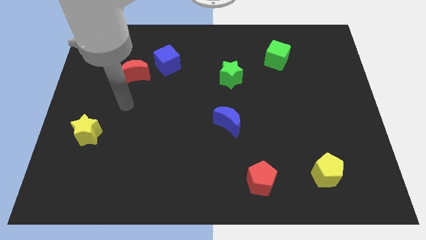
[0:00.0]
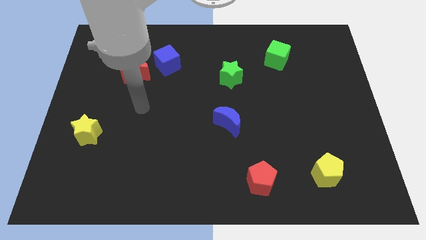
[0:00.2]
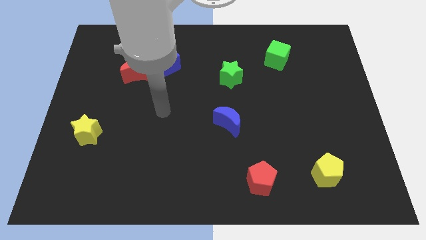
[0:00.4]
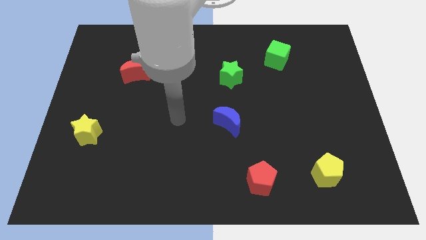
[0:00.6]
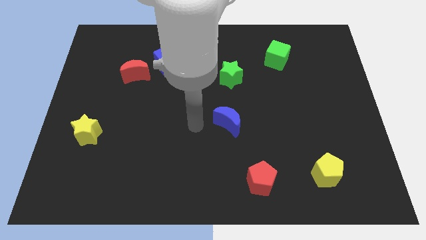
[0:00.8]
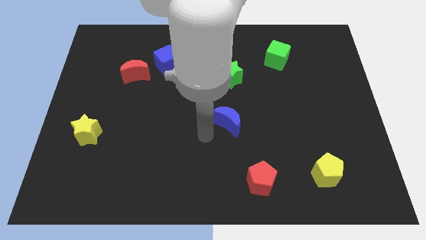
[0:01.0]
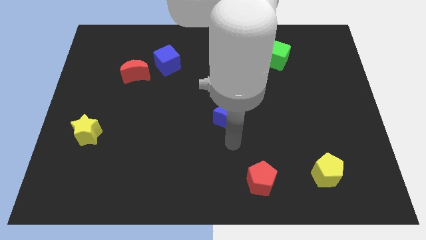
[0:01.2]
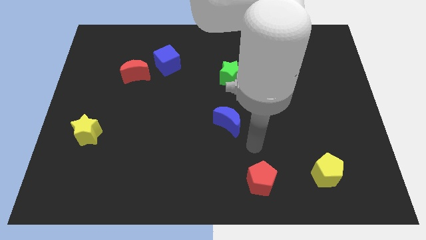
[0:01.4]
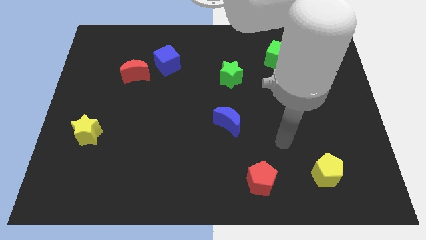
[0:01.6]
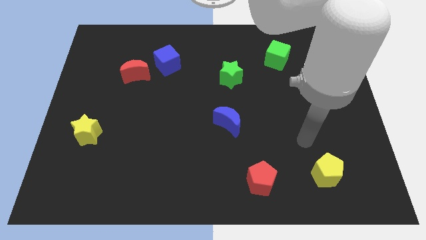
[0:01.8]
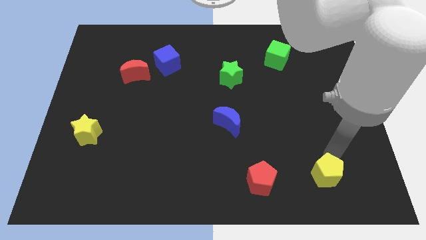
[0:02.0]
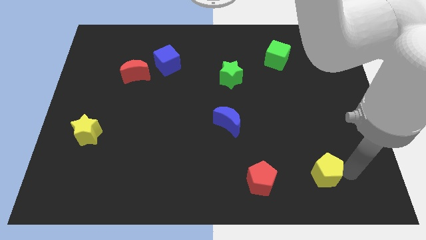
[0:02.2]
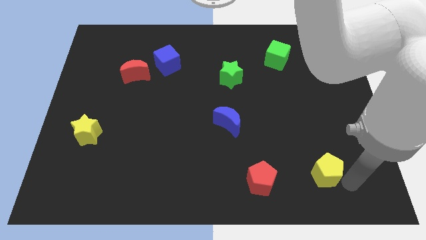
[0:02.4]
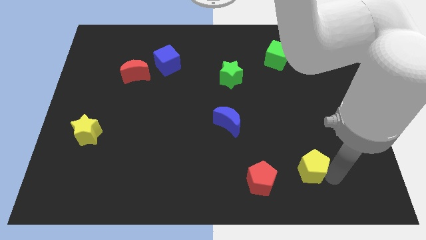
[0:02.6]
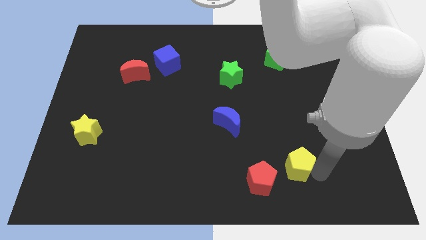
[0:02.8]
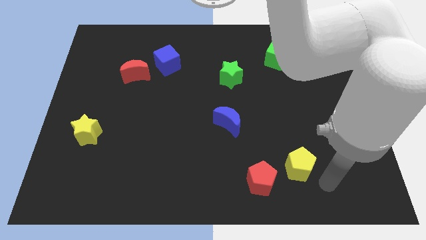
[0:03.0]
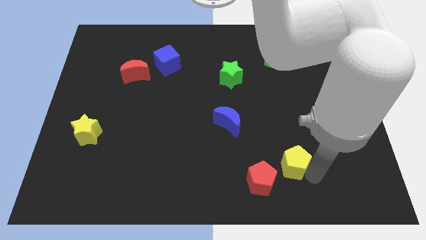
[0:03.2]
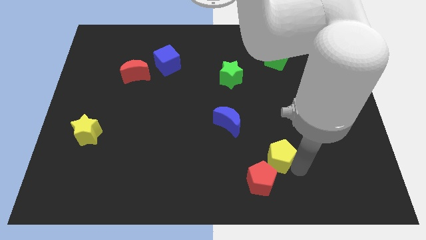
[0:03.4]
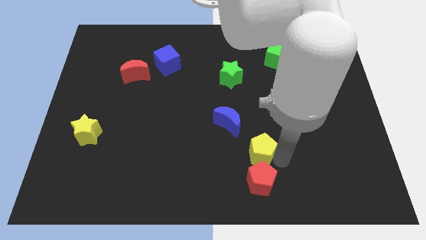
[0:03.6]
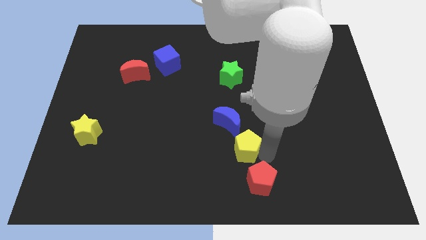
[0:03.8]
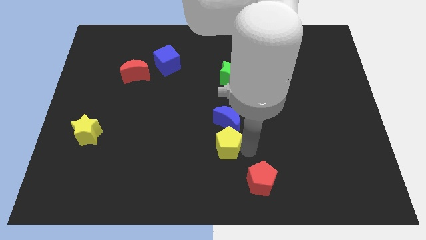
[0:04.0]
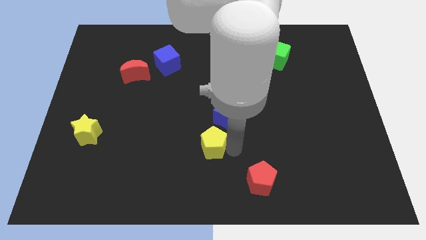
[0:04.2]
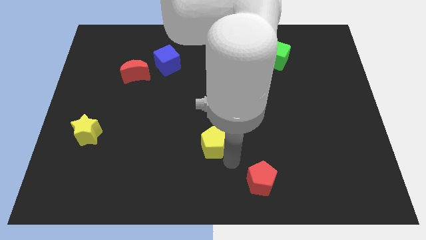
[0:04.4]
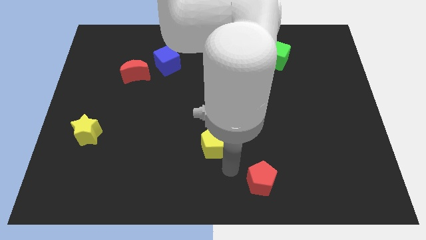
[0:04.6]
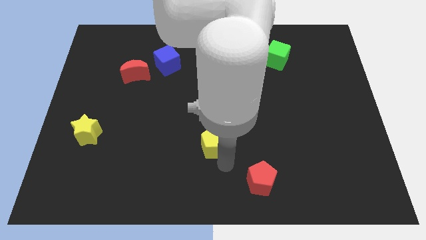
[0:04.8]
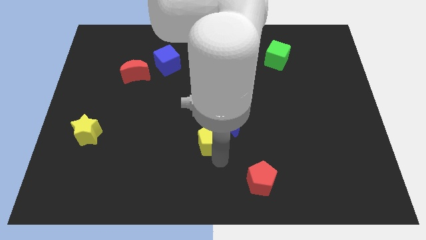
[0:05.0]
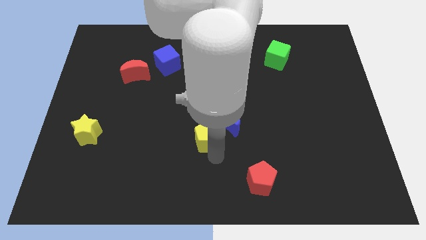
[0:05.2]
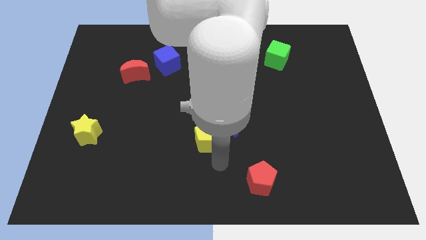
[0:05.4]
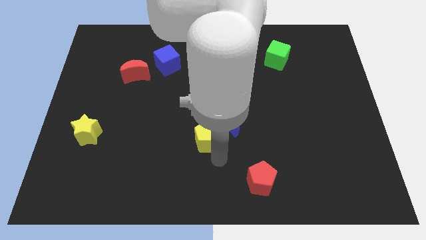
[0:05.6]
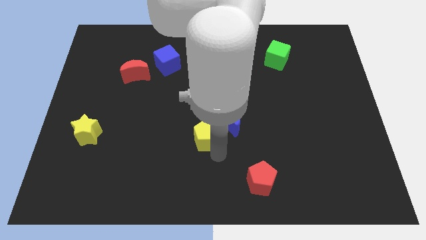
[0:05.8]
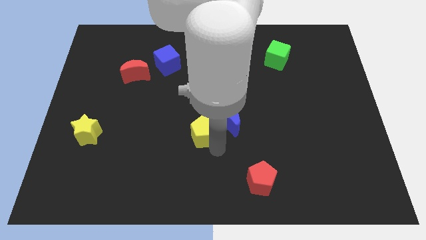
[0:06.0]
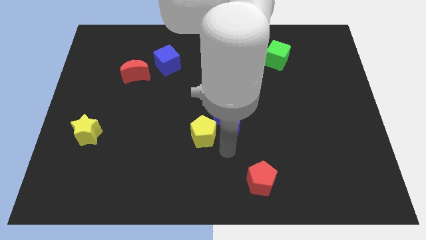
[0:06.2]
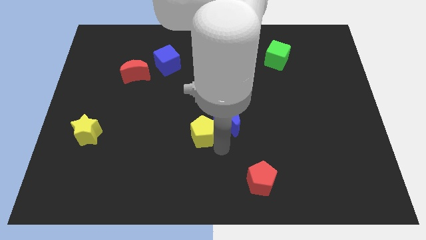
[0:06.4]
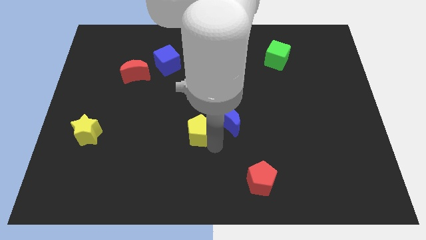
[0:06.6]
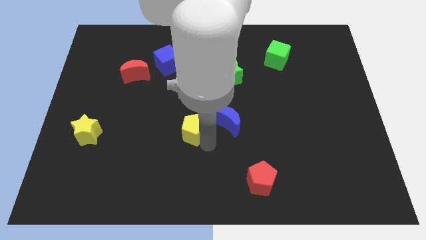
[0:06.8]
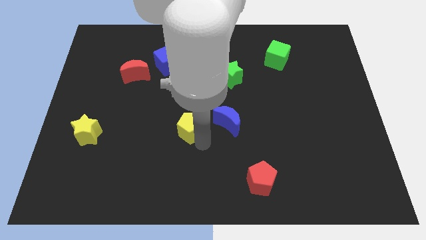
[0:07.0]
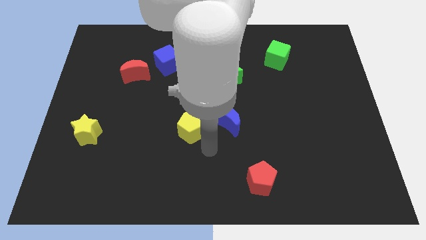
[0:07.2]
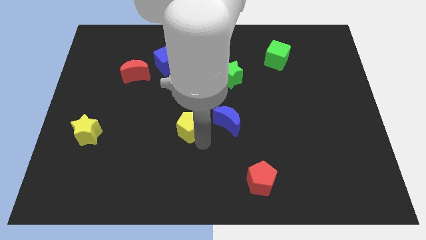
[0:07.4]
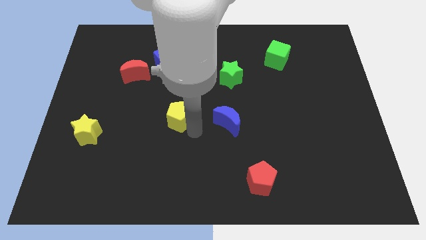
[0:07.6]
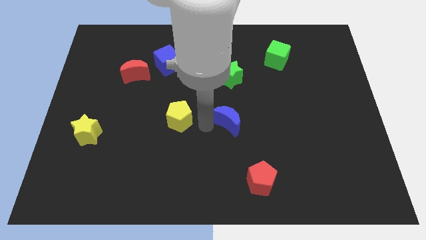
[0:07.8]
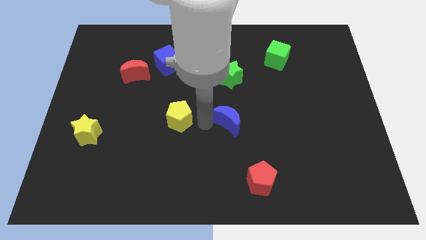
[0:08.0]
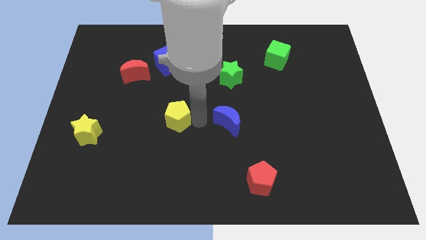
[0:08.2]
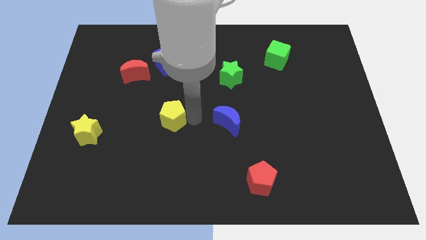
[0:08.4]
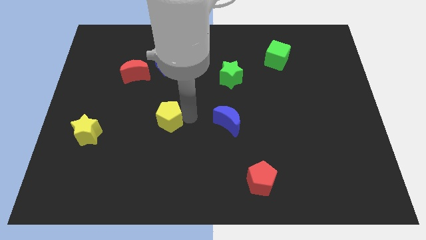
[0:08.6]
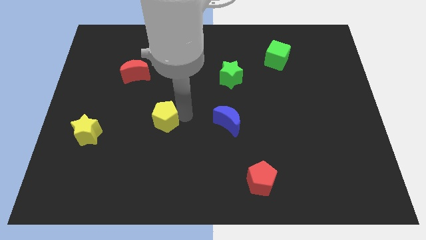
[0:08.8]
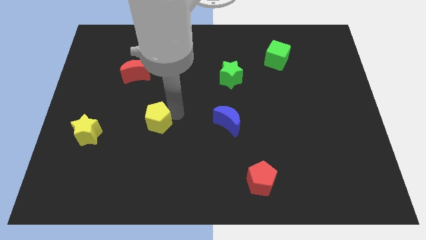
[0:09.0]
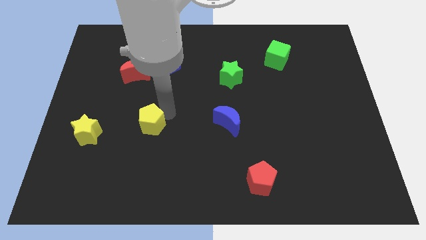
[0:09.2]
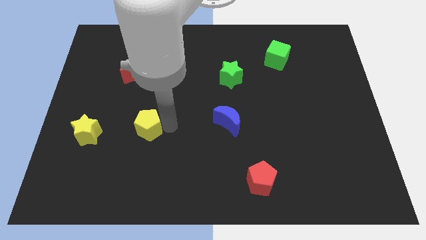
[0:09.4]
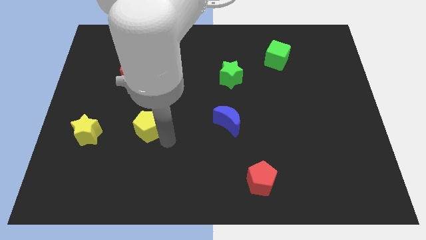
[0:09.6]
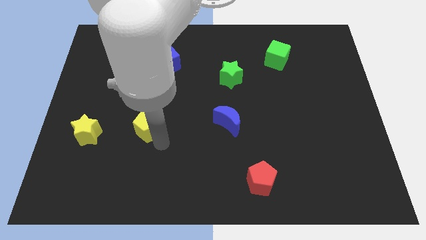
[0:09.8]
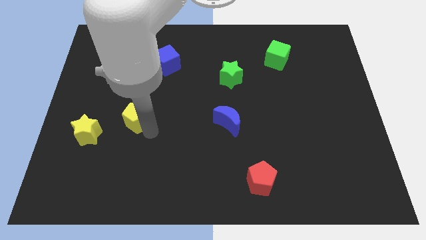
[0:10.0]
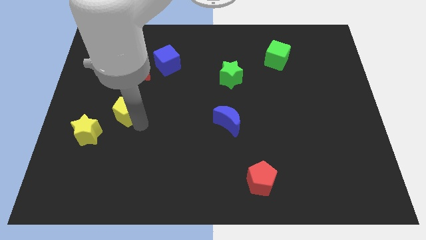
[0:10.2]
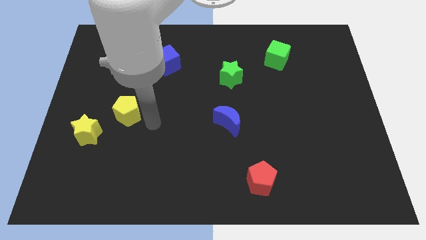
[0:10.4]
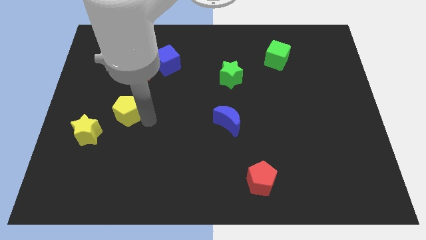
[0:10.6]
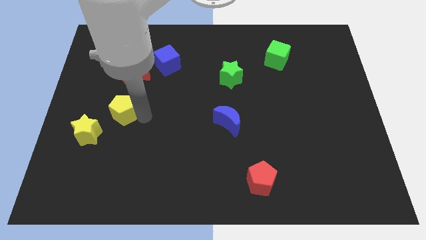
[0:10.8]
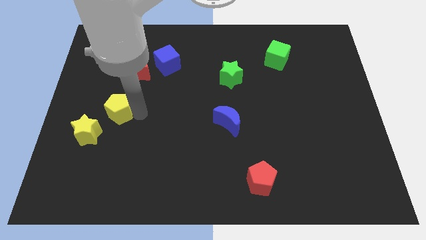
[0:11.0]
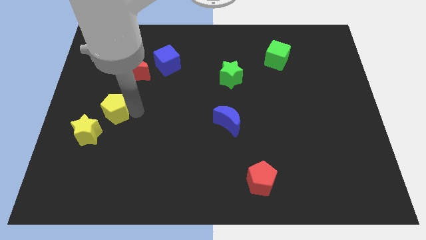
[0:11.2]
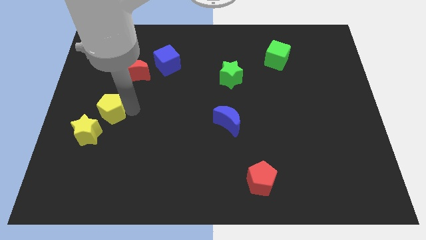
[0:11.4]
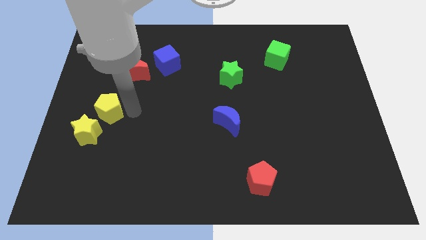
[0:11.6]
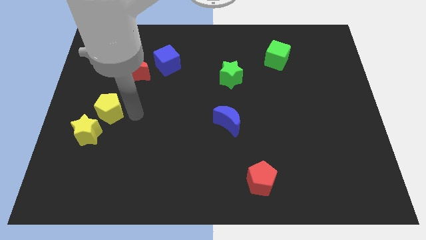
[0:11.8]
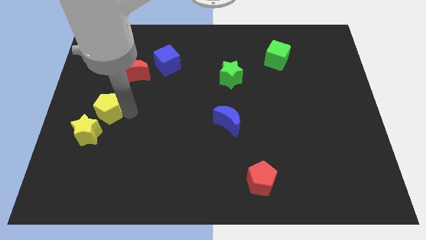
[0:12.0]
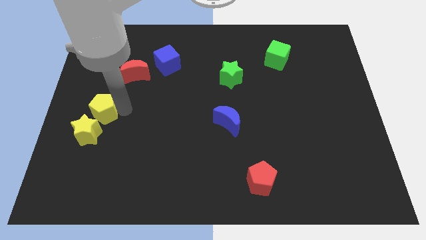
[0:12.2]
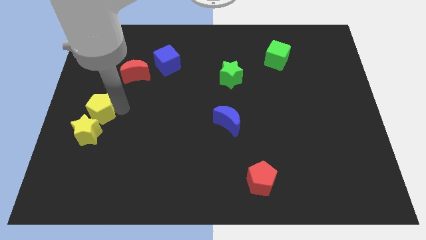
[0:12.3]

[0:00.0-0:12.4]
push the yellow pentagon to the left side

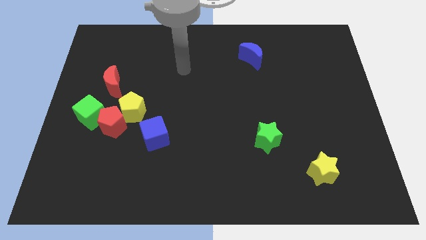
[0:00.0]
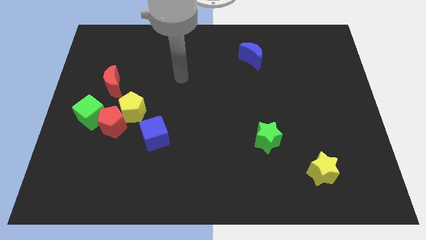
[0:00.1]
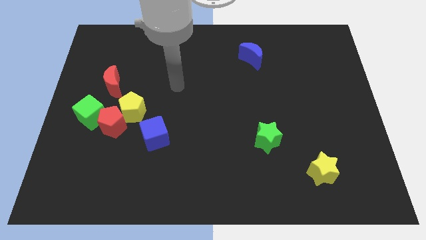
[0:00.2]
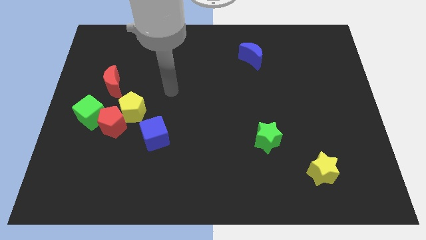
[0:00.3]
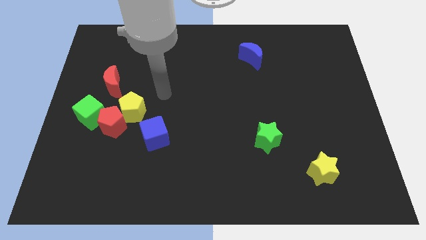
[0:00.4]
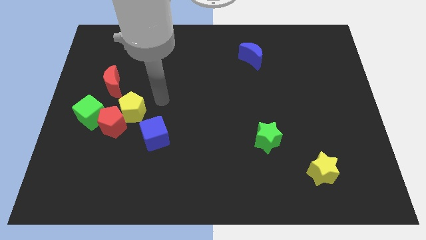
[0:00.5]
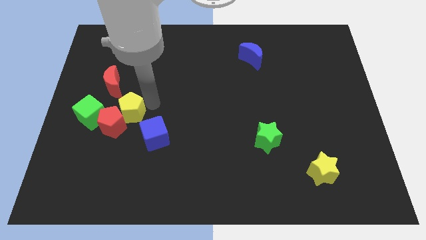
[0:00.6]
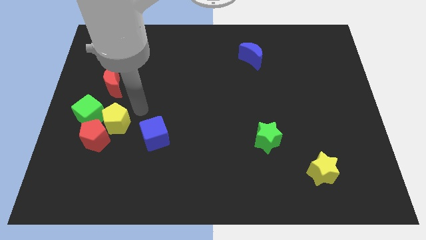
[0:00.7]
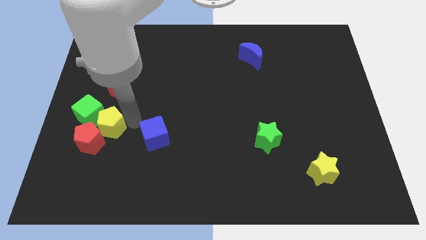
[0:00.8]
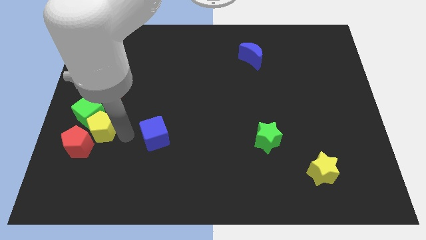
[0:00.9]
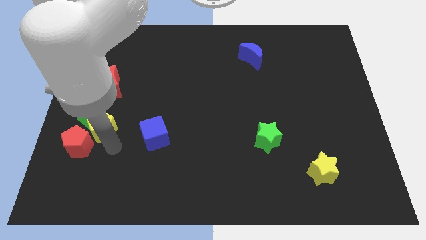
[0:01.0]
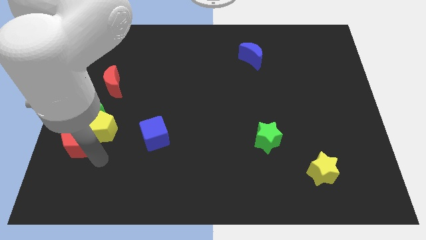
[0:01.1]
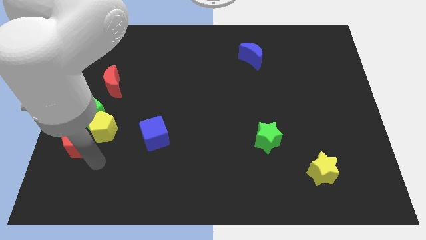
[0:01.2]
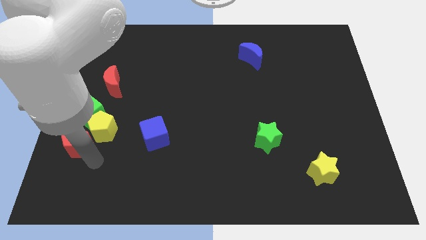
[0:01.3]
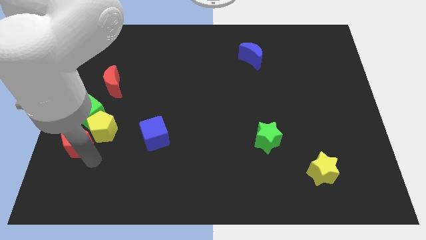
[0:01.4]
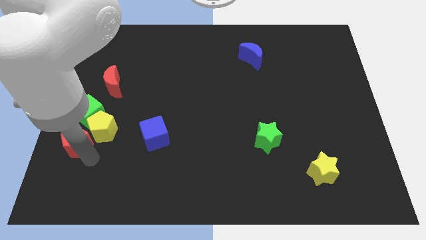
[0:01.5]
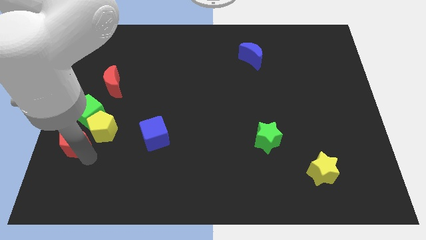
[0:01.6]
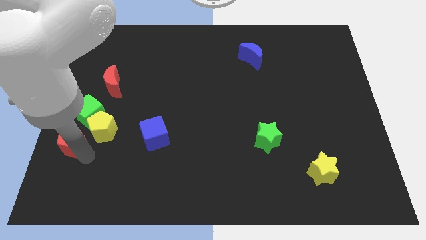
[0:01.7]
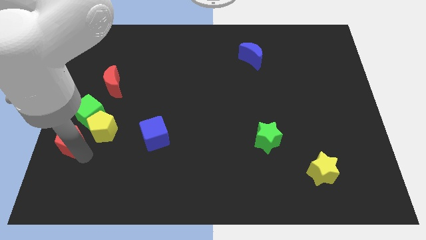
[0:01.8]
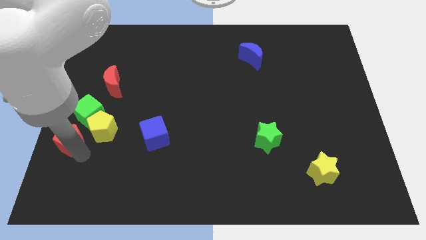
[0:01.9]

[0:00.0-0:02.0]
push the red pentagon to the center left
